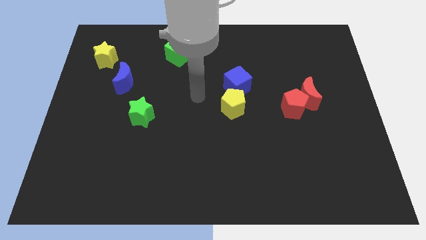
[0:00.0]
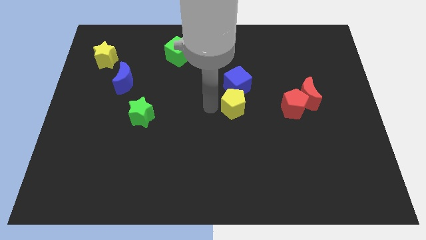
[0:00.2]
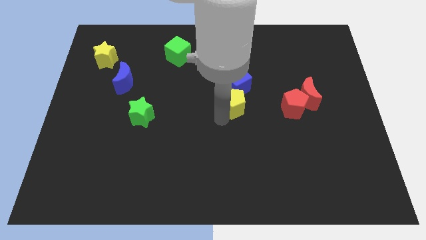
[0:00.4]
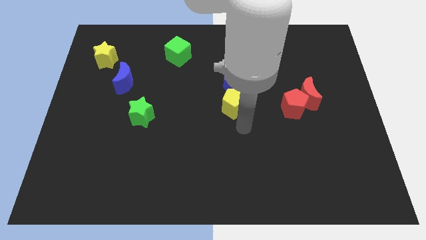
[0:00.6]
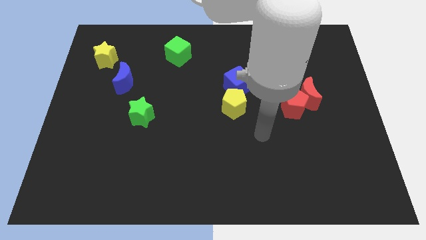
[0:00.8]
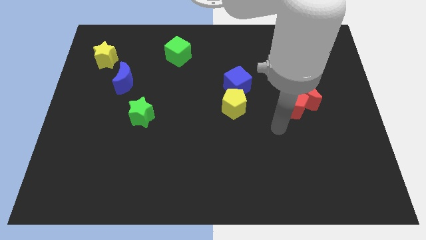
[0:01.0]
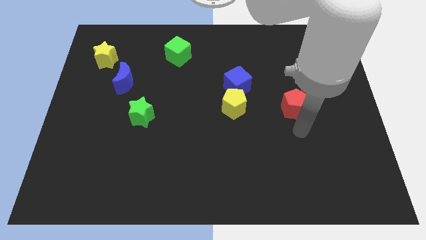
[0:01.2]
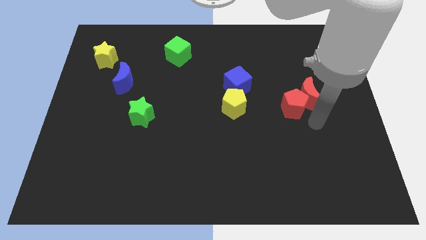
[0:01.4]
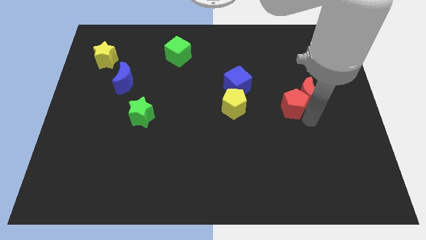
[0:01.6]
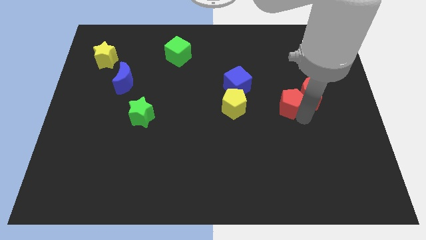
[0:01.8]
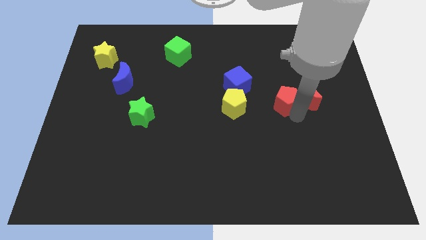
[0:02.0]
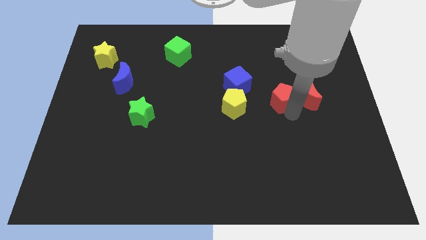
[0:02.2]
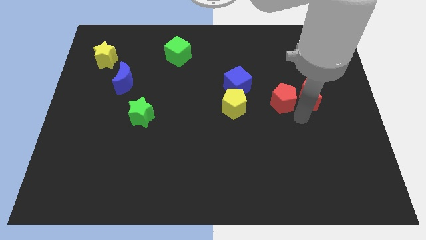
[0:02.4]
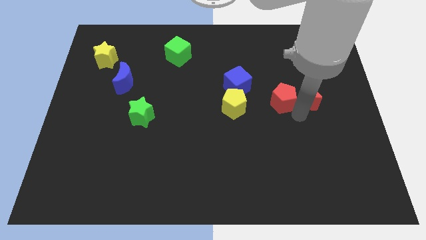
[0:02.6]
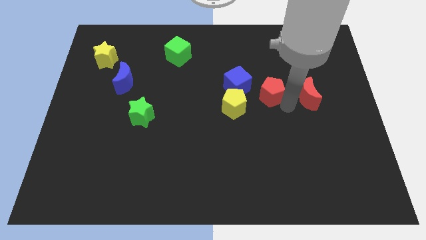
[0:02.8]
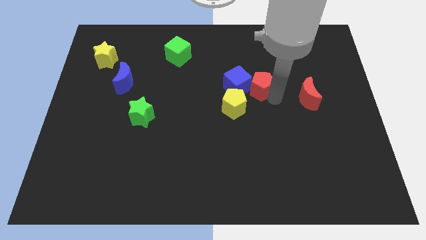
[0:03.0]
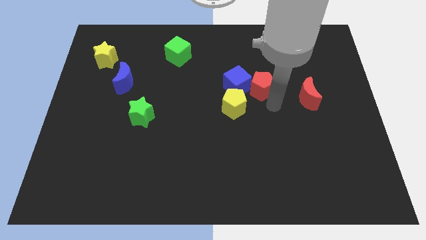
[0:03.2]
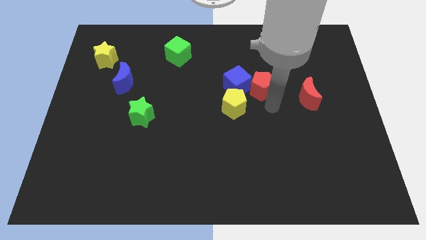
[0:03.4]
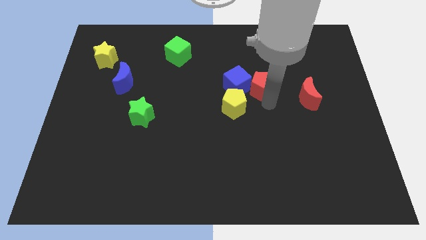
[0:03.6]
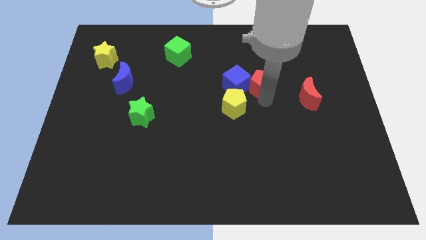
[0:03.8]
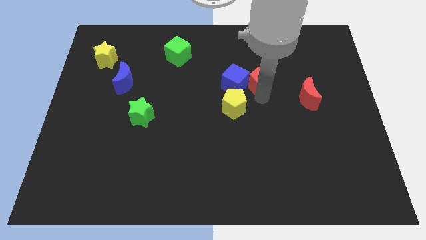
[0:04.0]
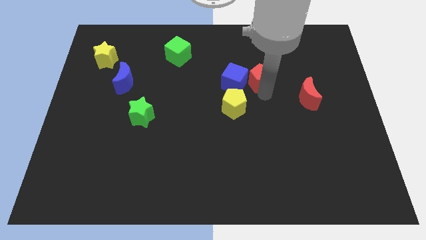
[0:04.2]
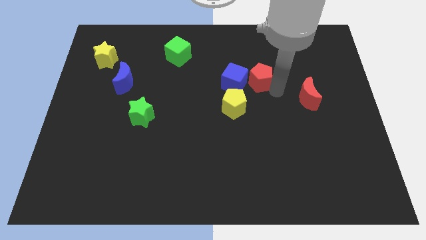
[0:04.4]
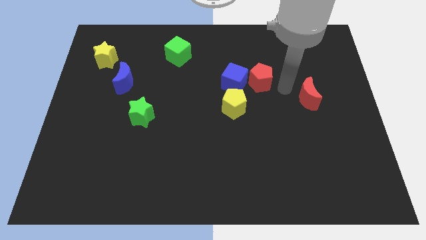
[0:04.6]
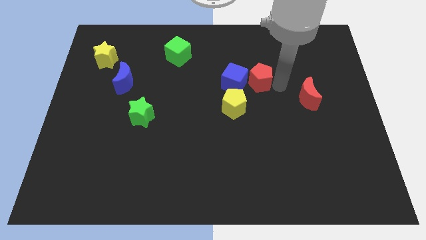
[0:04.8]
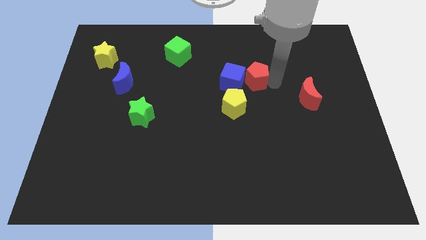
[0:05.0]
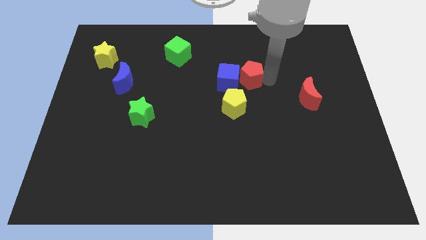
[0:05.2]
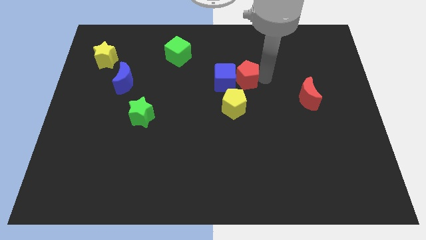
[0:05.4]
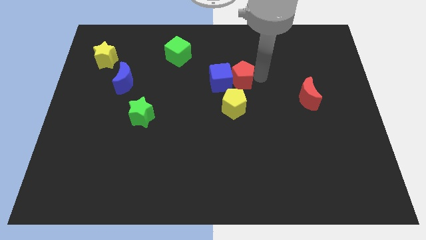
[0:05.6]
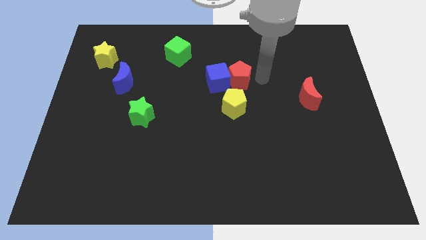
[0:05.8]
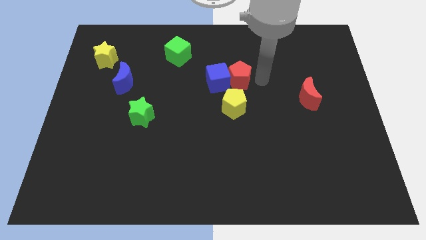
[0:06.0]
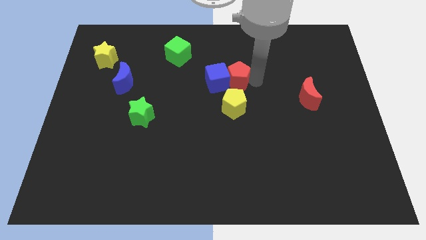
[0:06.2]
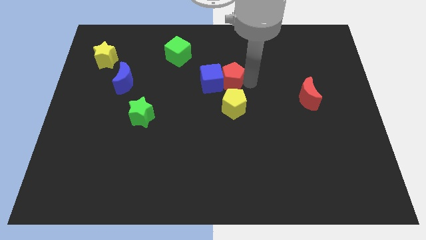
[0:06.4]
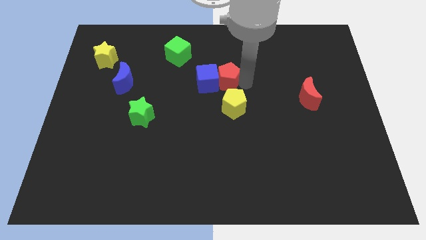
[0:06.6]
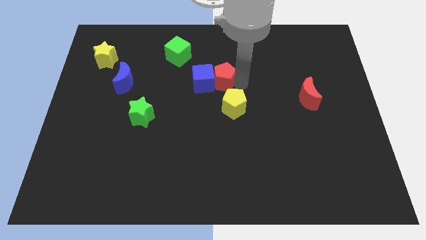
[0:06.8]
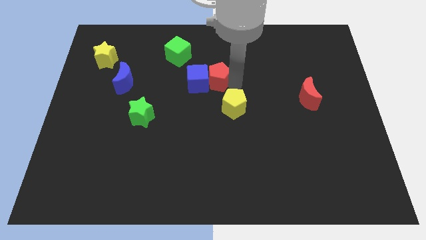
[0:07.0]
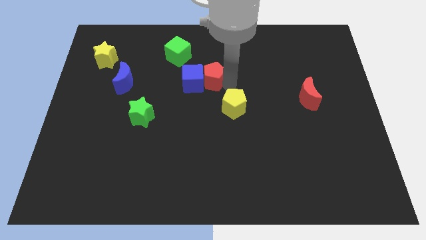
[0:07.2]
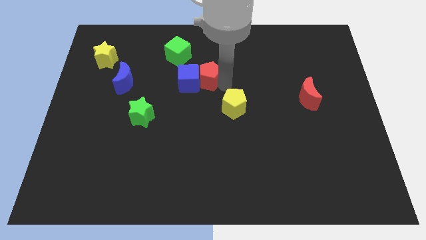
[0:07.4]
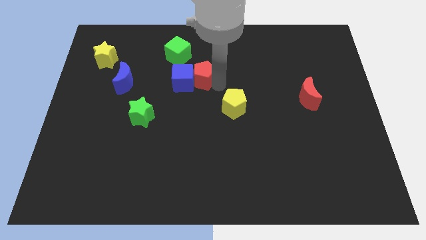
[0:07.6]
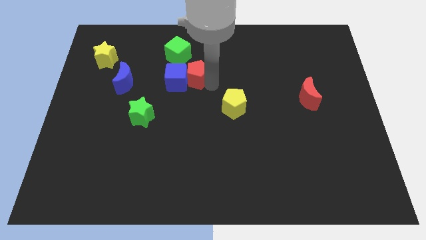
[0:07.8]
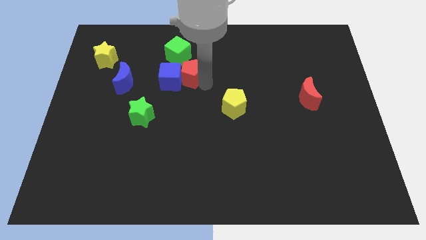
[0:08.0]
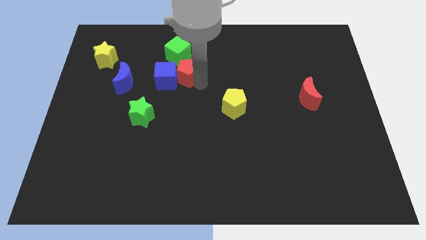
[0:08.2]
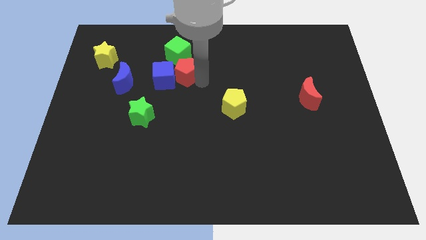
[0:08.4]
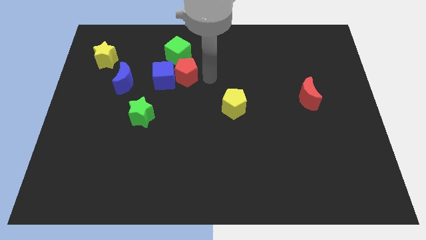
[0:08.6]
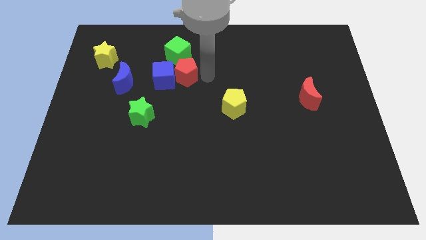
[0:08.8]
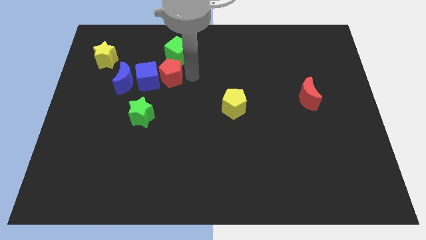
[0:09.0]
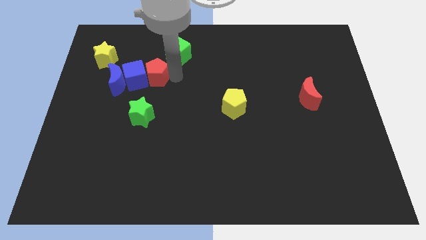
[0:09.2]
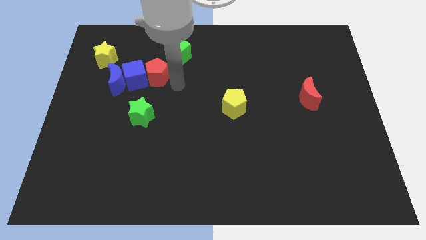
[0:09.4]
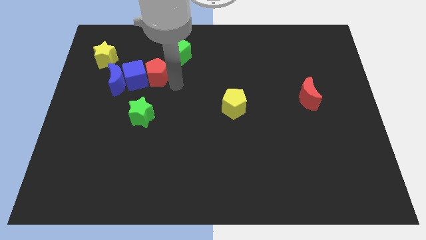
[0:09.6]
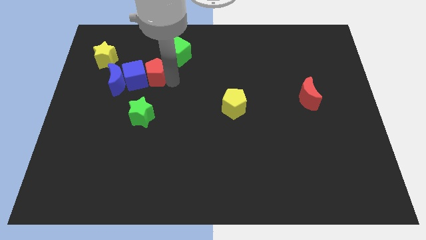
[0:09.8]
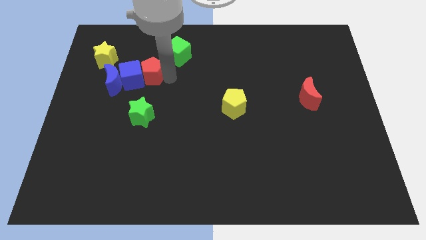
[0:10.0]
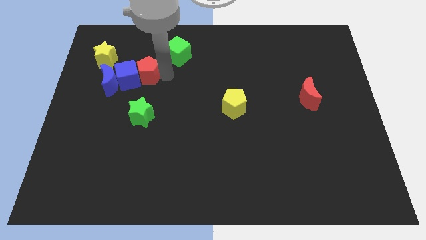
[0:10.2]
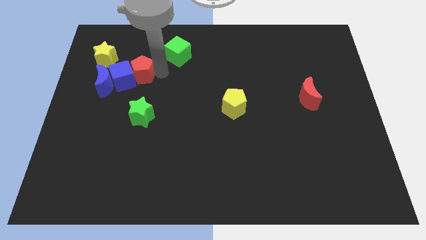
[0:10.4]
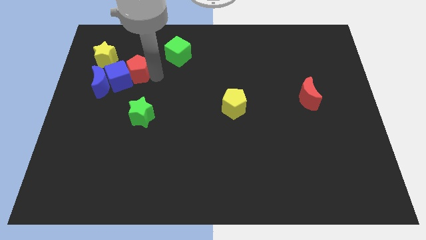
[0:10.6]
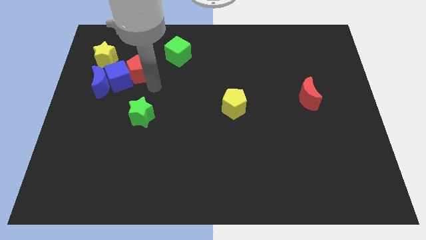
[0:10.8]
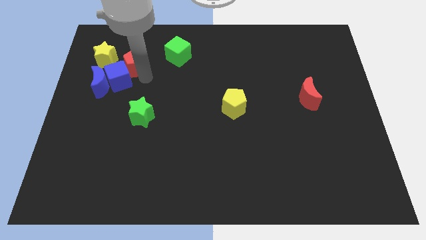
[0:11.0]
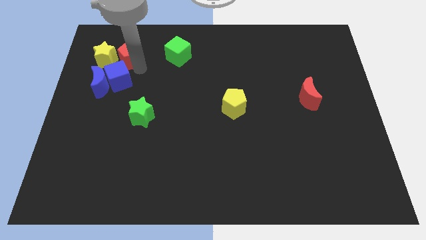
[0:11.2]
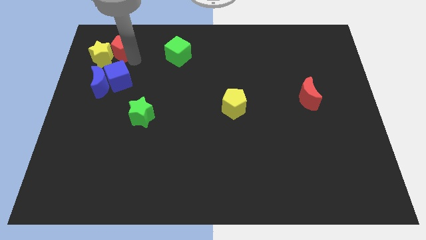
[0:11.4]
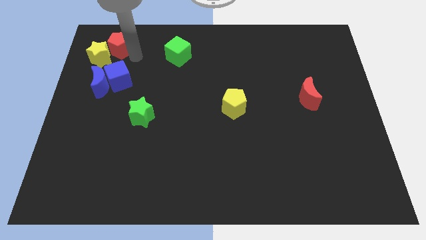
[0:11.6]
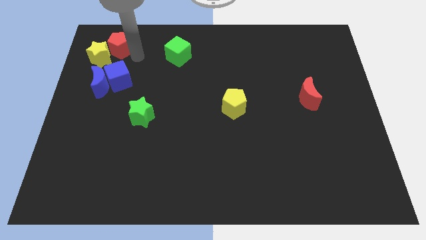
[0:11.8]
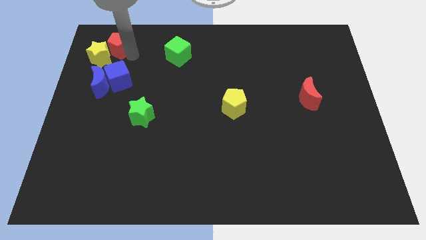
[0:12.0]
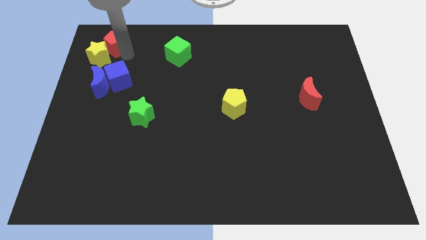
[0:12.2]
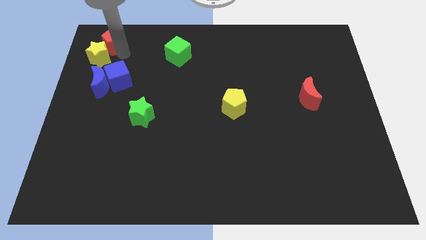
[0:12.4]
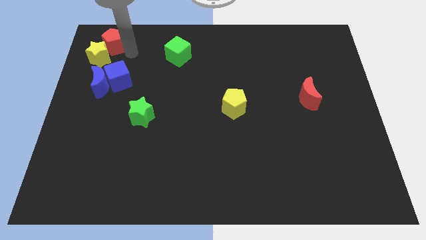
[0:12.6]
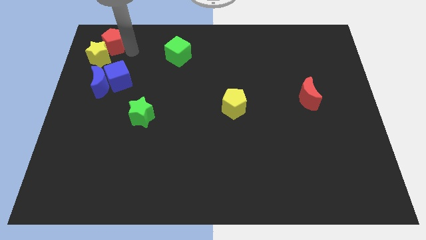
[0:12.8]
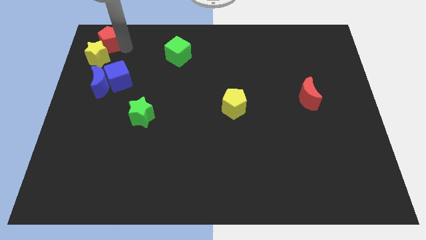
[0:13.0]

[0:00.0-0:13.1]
push the red pentagon to the top left of the board
